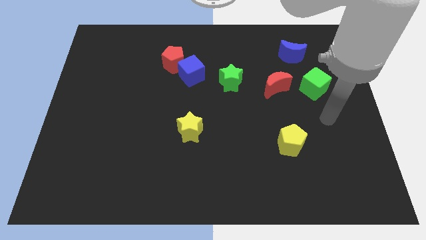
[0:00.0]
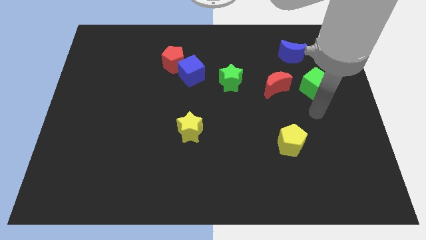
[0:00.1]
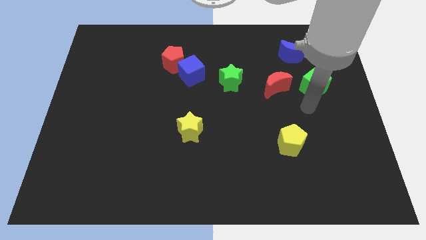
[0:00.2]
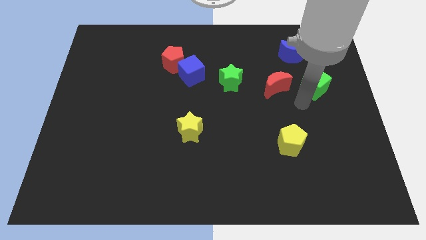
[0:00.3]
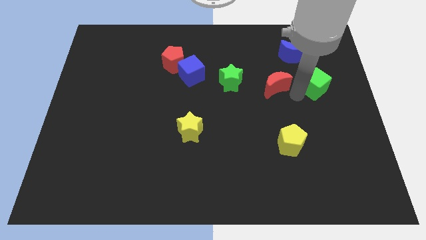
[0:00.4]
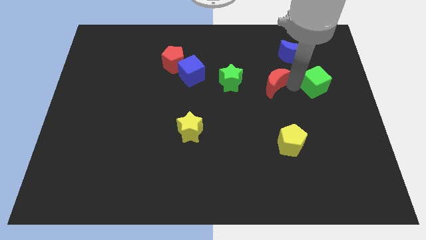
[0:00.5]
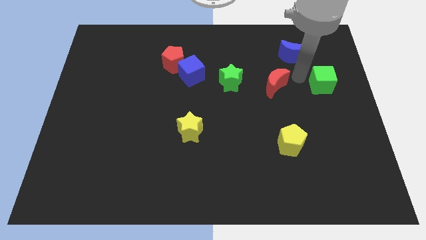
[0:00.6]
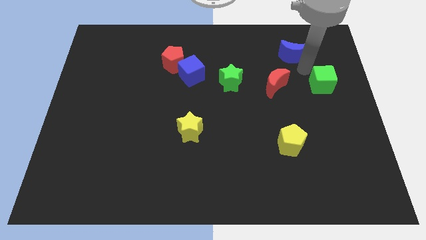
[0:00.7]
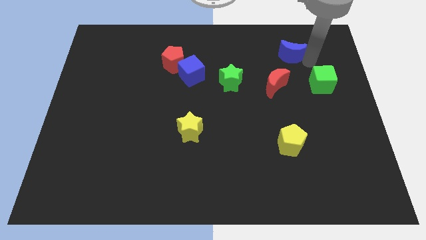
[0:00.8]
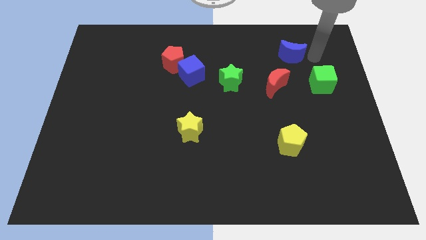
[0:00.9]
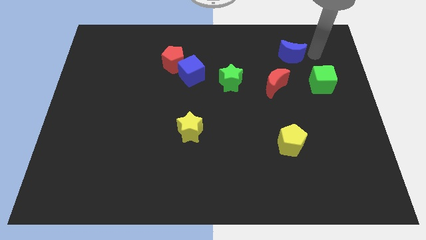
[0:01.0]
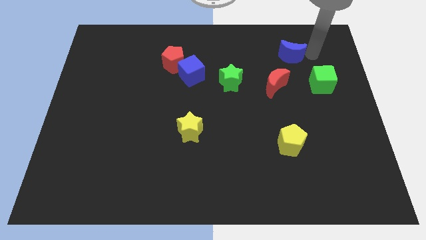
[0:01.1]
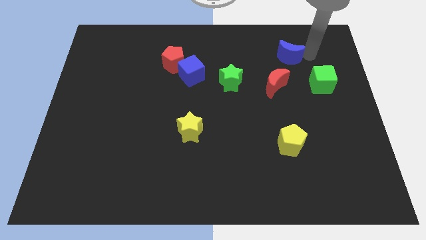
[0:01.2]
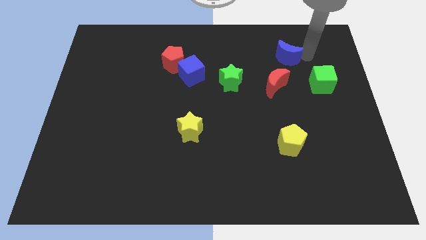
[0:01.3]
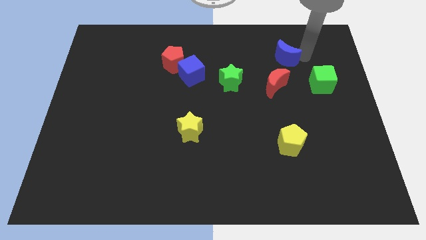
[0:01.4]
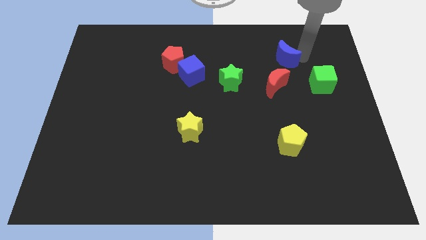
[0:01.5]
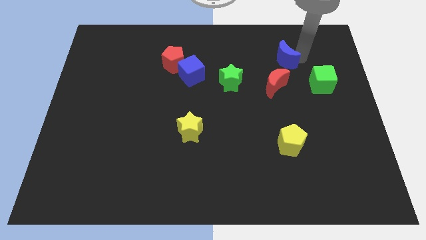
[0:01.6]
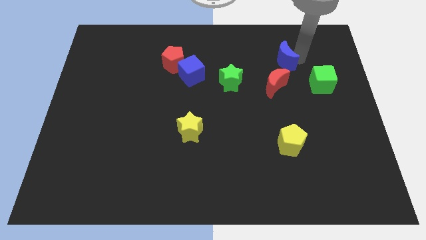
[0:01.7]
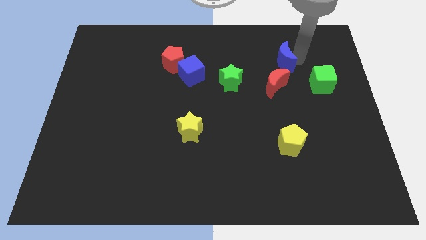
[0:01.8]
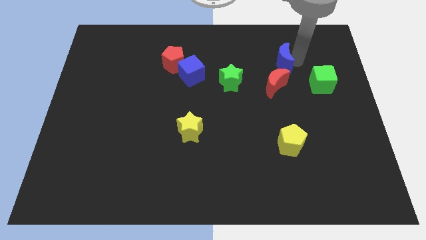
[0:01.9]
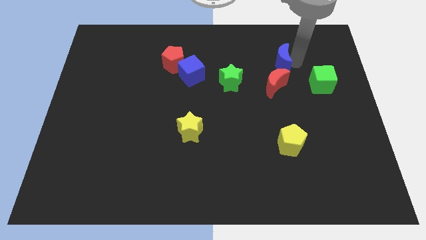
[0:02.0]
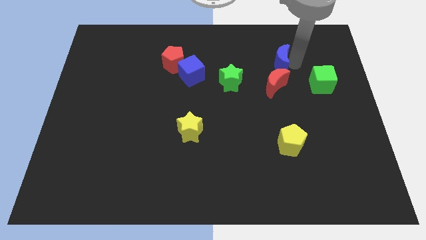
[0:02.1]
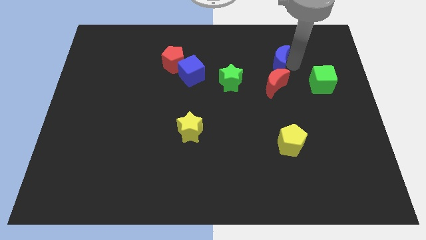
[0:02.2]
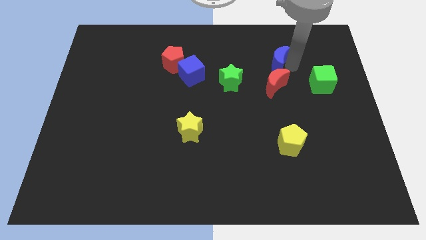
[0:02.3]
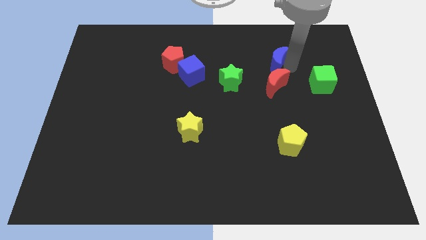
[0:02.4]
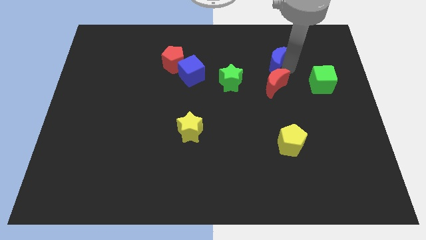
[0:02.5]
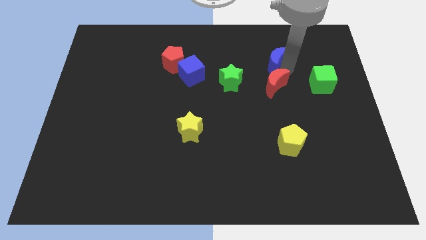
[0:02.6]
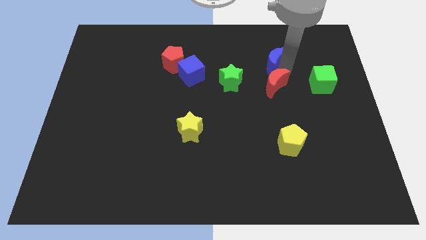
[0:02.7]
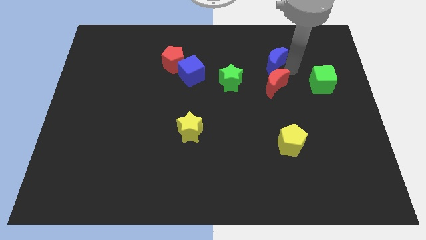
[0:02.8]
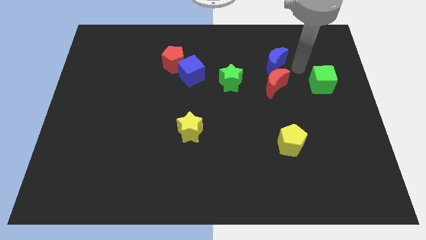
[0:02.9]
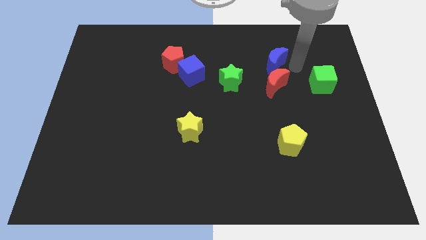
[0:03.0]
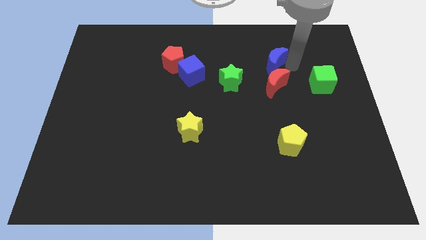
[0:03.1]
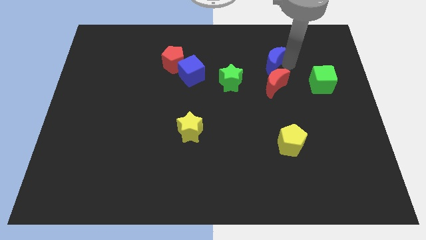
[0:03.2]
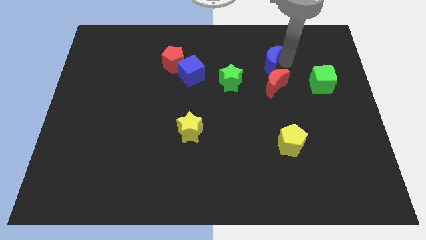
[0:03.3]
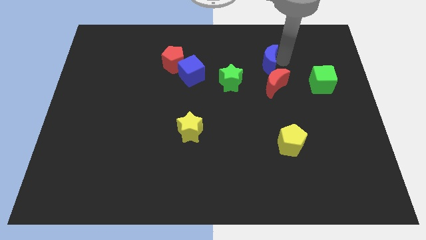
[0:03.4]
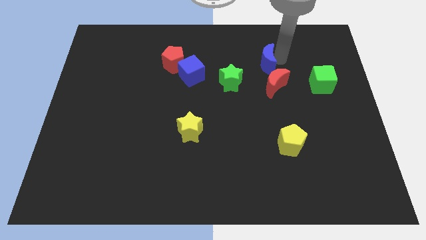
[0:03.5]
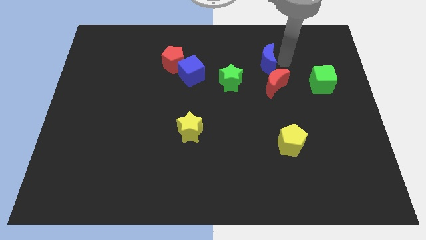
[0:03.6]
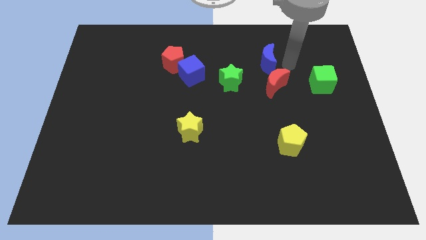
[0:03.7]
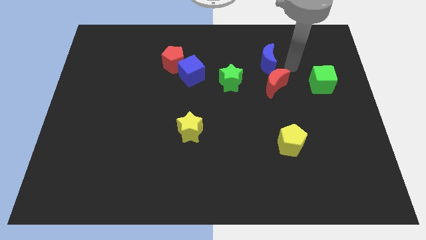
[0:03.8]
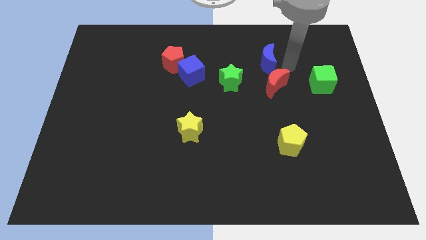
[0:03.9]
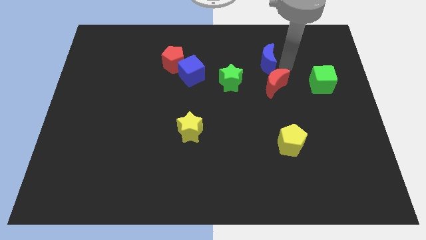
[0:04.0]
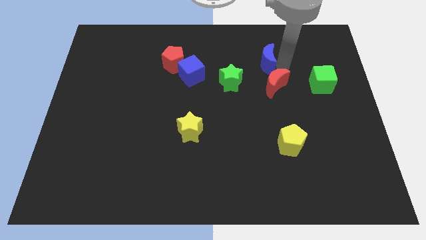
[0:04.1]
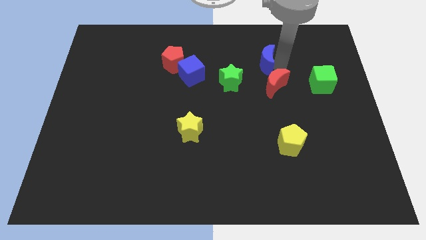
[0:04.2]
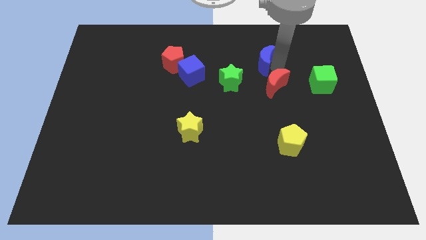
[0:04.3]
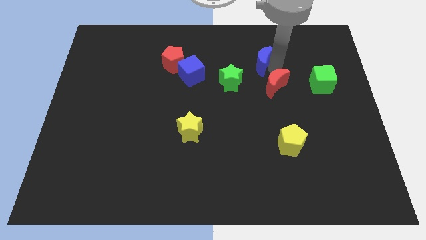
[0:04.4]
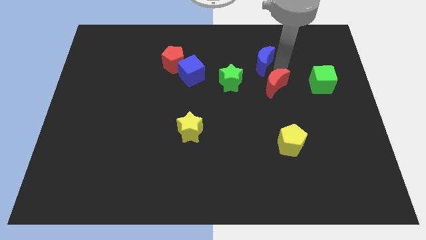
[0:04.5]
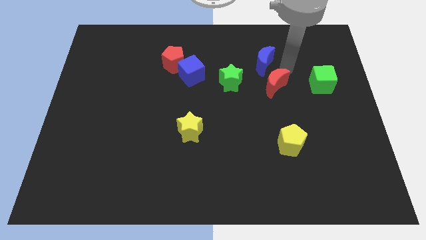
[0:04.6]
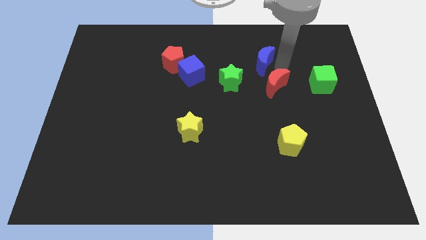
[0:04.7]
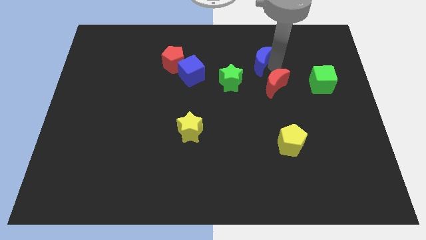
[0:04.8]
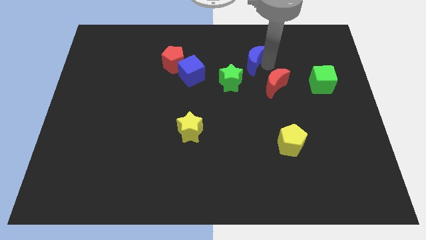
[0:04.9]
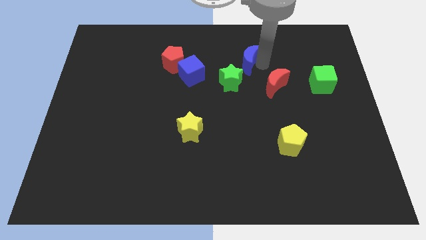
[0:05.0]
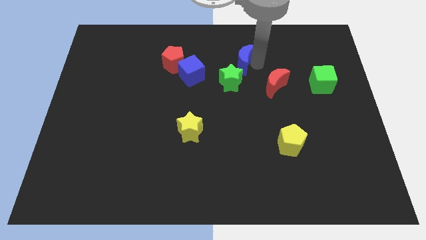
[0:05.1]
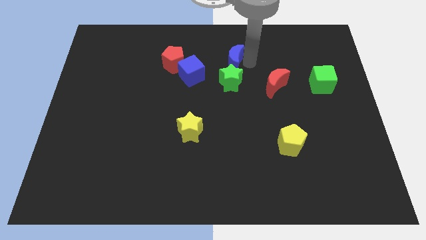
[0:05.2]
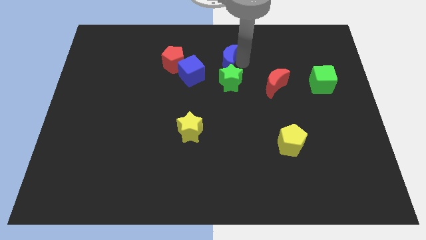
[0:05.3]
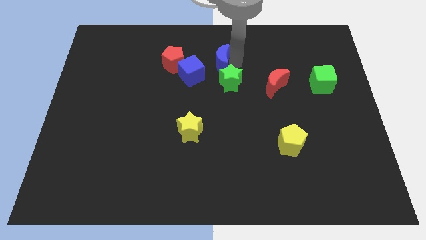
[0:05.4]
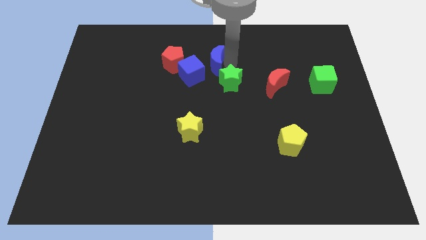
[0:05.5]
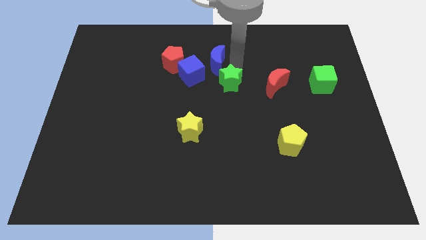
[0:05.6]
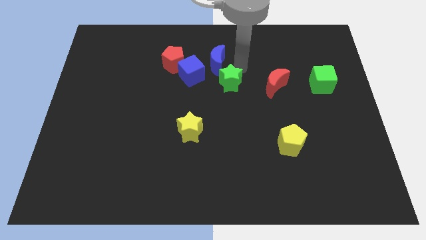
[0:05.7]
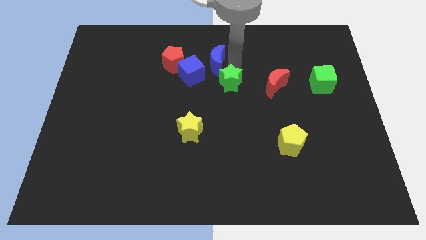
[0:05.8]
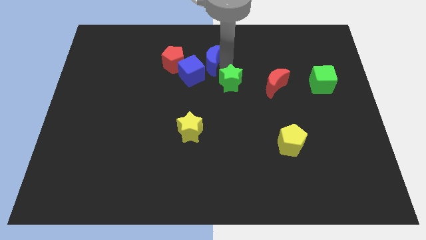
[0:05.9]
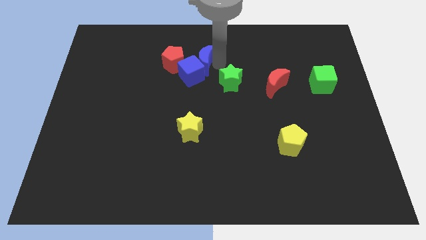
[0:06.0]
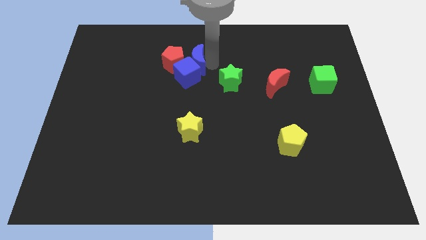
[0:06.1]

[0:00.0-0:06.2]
put the blue moon close to the red pentagon

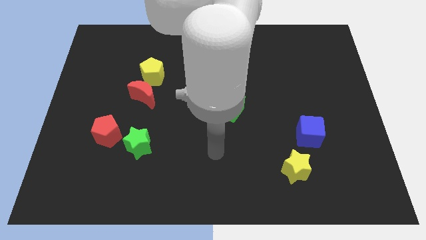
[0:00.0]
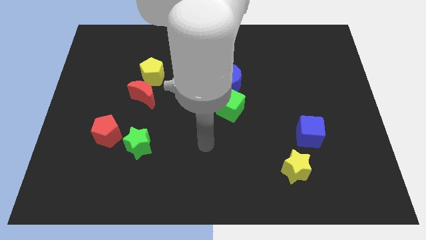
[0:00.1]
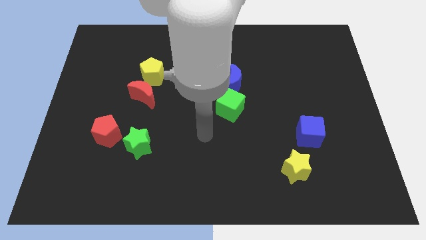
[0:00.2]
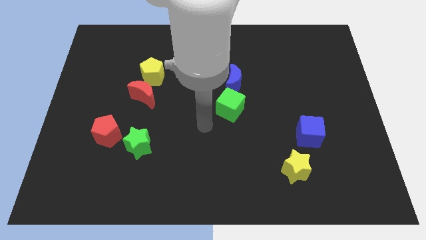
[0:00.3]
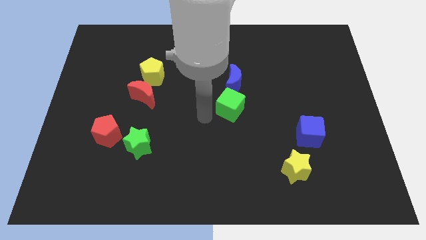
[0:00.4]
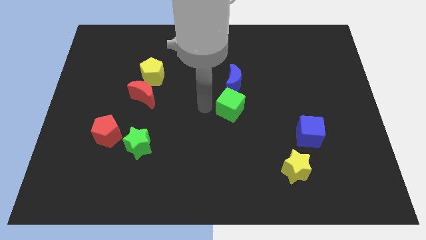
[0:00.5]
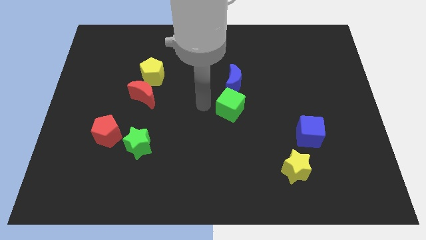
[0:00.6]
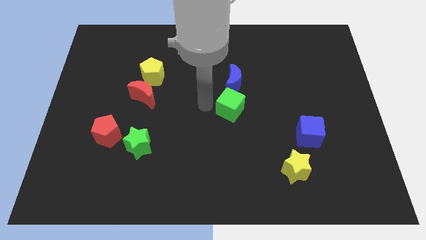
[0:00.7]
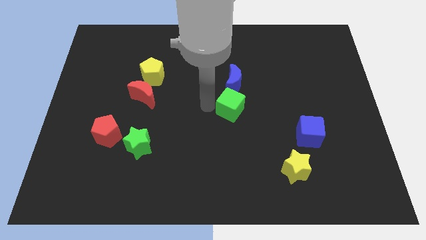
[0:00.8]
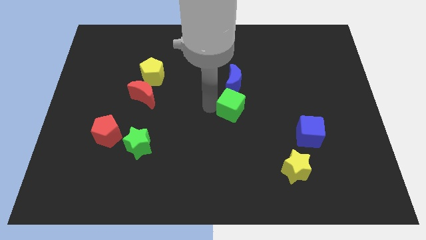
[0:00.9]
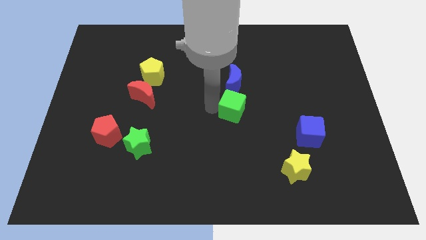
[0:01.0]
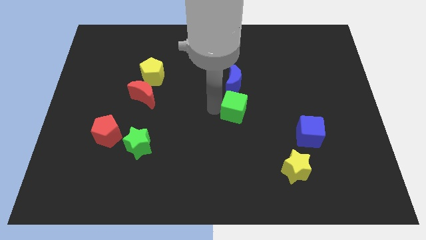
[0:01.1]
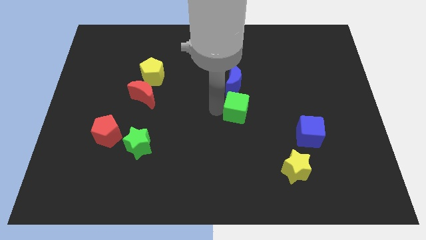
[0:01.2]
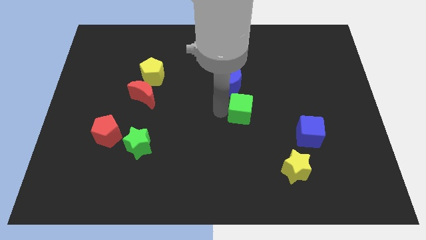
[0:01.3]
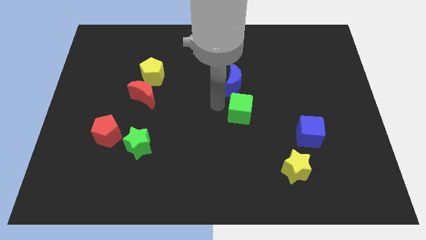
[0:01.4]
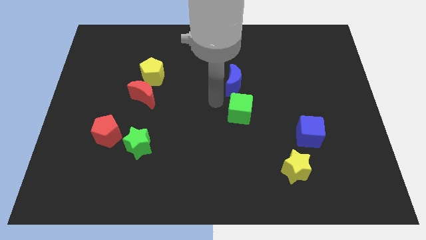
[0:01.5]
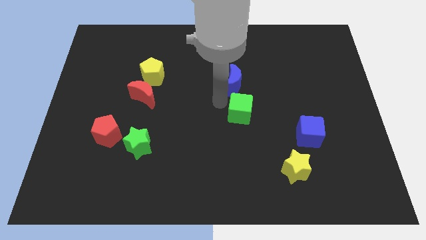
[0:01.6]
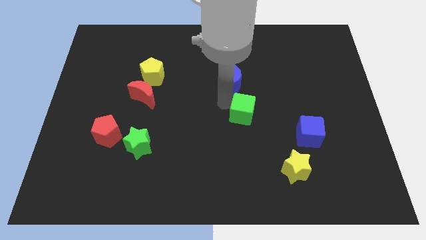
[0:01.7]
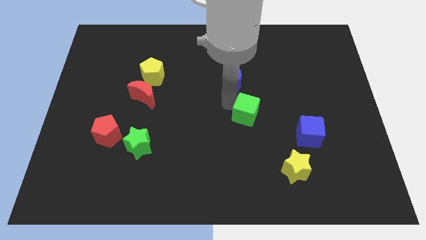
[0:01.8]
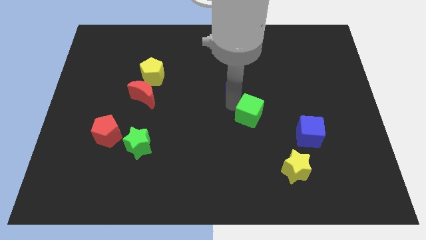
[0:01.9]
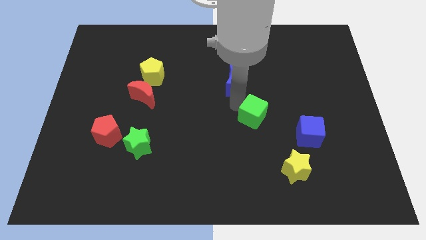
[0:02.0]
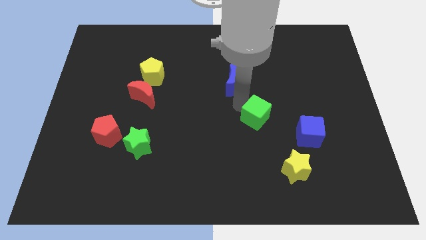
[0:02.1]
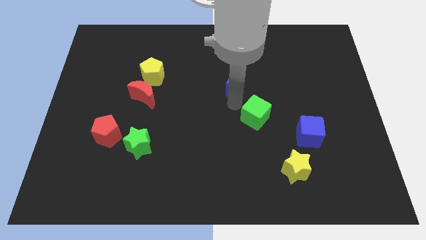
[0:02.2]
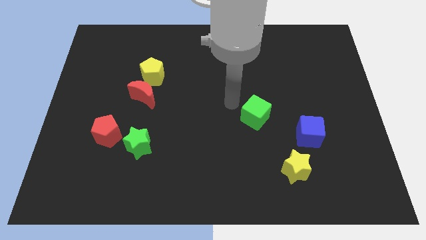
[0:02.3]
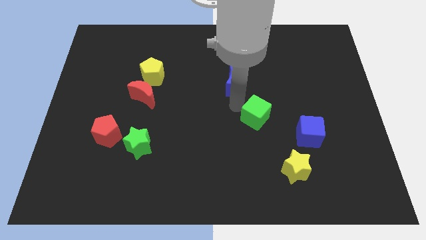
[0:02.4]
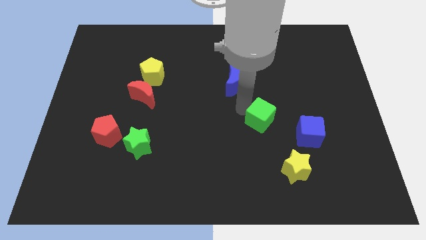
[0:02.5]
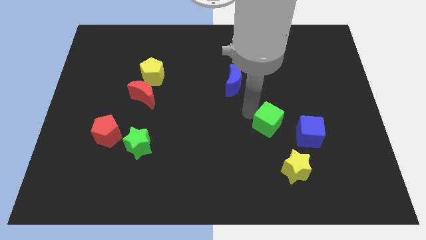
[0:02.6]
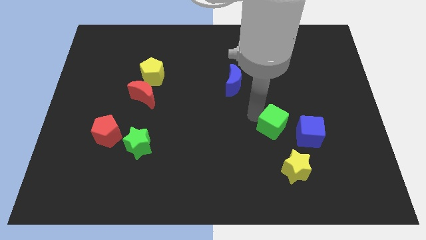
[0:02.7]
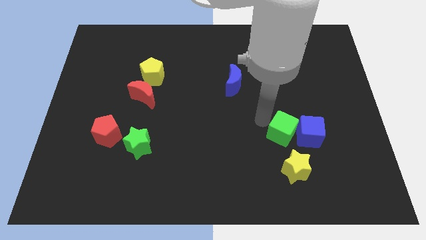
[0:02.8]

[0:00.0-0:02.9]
slide the green cube close to the blue cube
